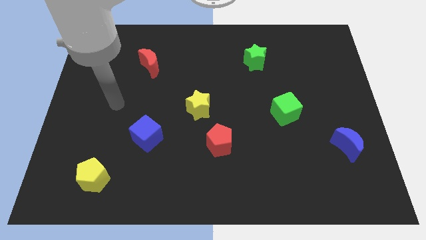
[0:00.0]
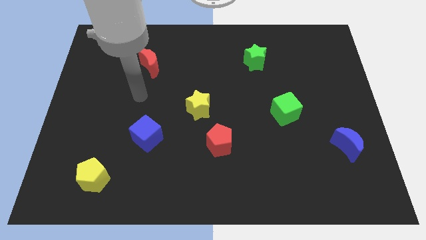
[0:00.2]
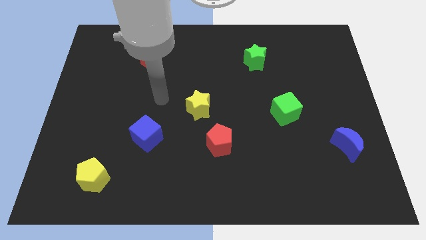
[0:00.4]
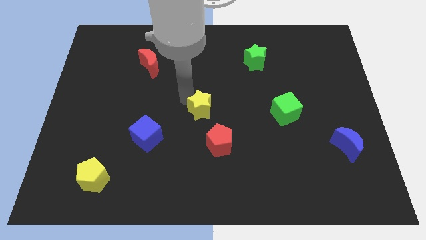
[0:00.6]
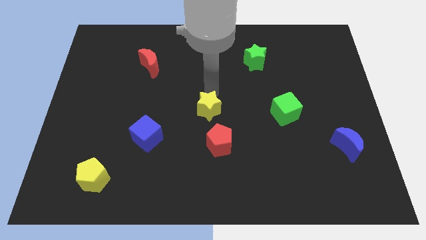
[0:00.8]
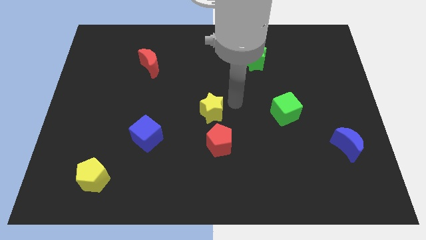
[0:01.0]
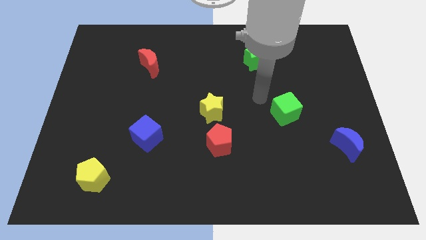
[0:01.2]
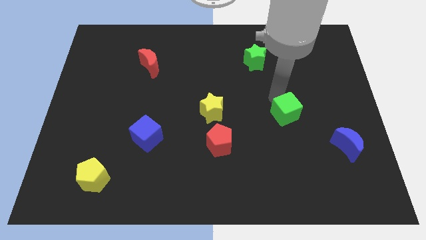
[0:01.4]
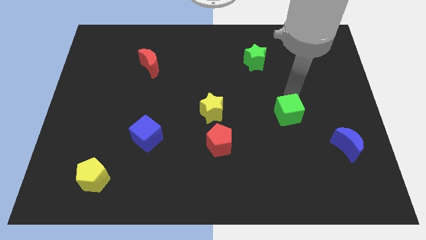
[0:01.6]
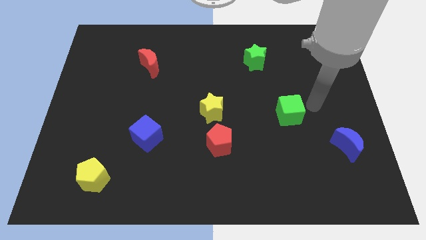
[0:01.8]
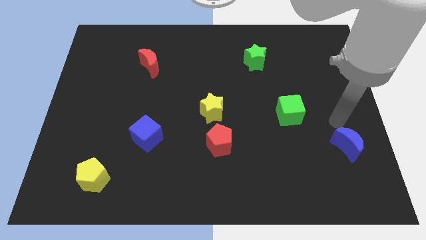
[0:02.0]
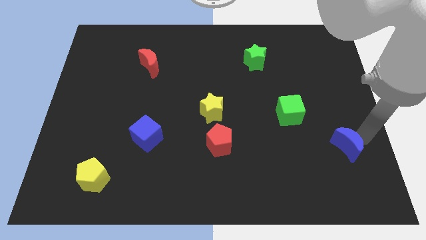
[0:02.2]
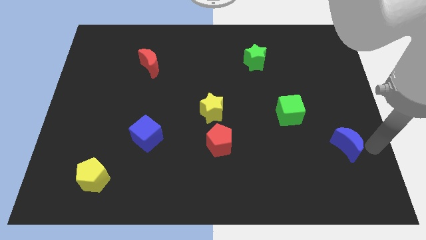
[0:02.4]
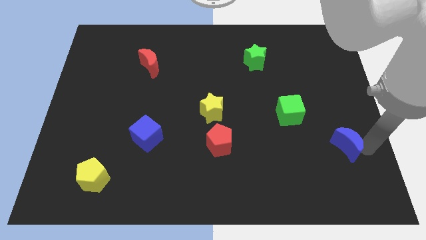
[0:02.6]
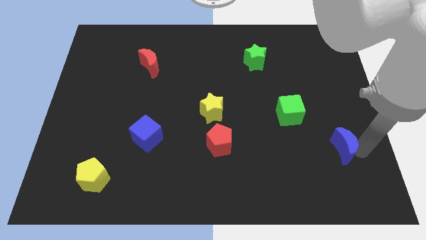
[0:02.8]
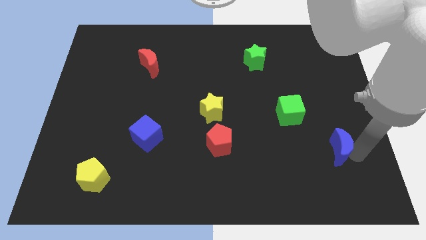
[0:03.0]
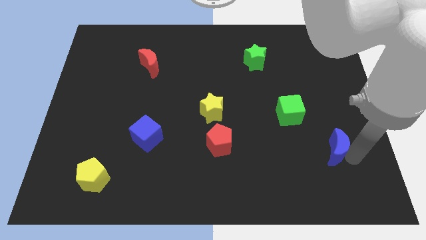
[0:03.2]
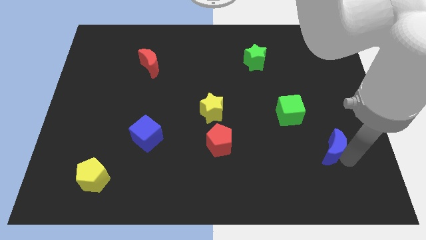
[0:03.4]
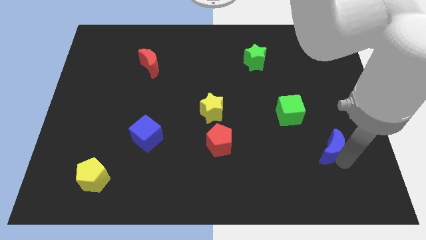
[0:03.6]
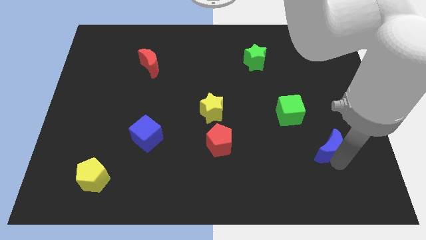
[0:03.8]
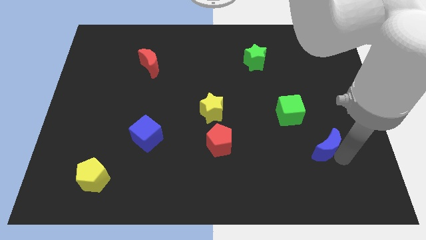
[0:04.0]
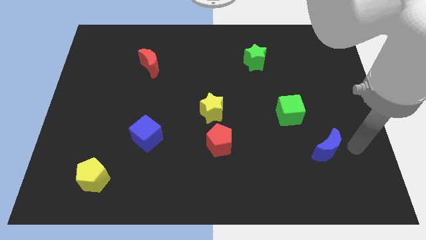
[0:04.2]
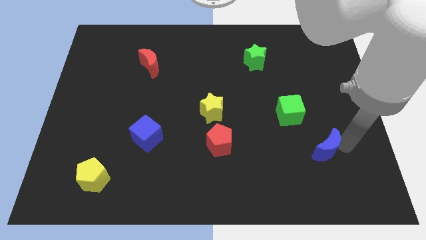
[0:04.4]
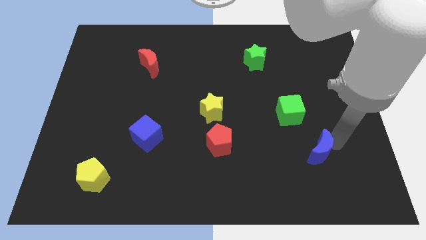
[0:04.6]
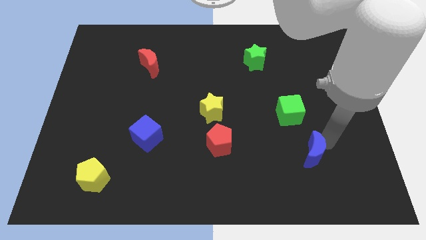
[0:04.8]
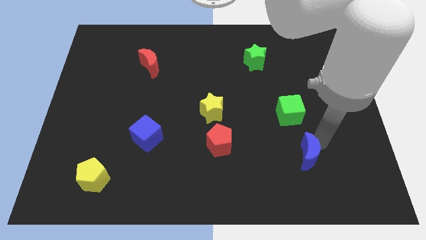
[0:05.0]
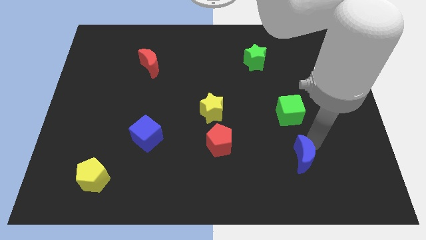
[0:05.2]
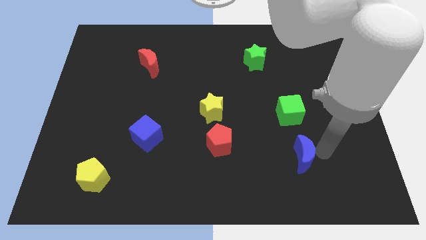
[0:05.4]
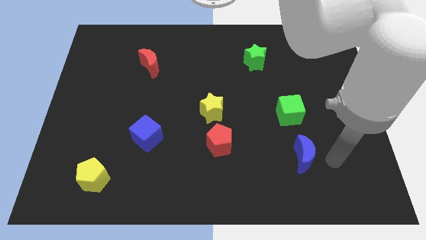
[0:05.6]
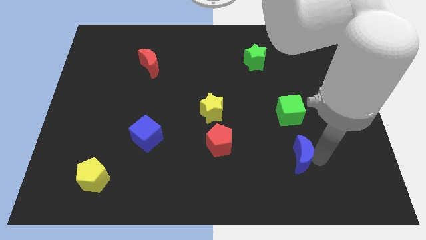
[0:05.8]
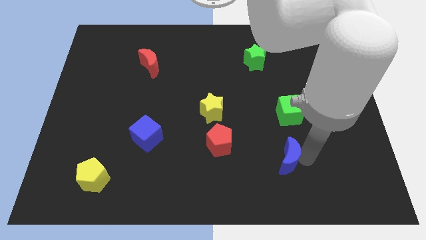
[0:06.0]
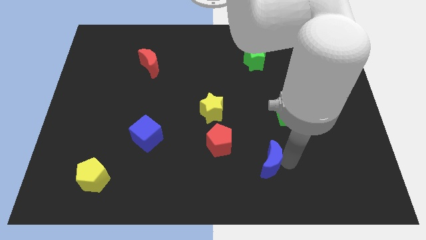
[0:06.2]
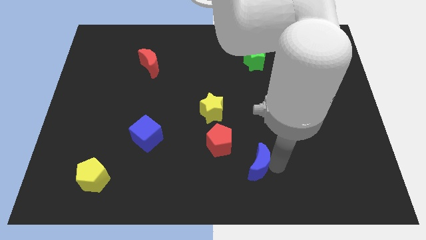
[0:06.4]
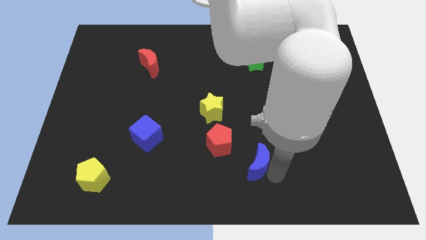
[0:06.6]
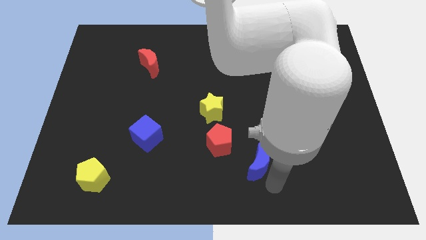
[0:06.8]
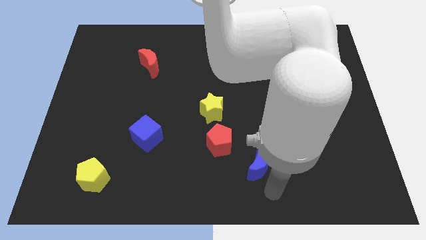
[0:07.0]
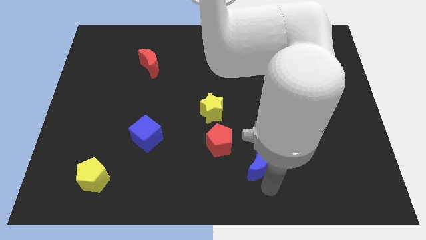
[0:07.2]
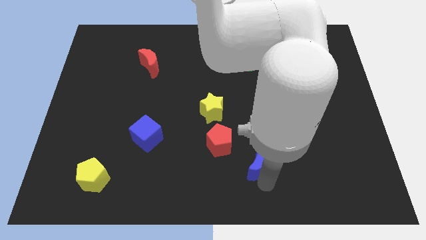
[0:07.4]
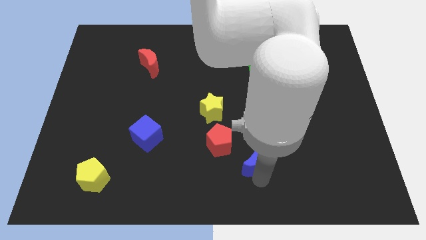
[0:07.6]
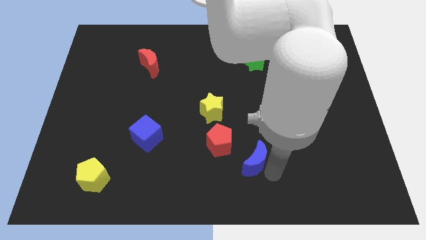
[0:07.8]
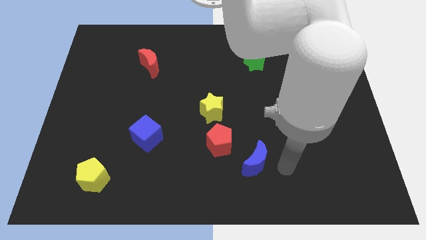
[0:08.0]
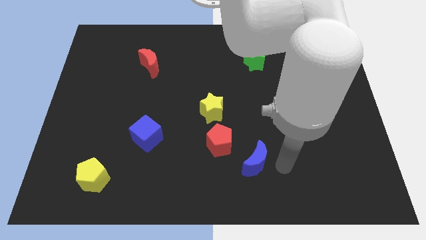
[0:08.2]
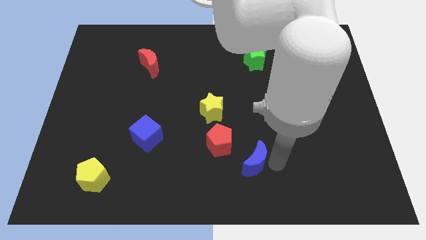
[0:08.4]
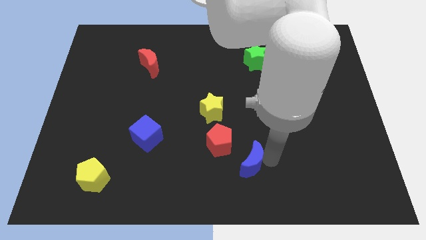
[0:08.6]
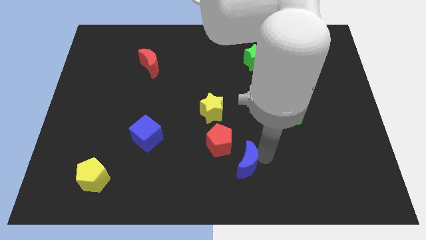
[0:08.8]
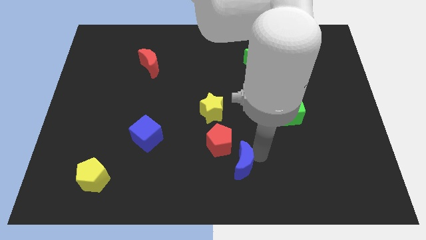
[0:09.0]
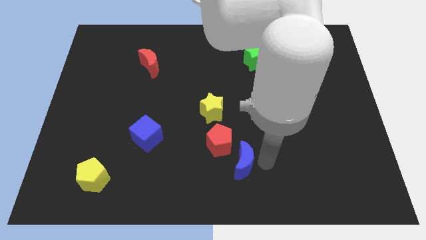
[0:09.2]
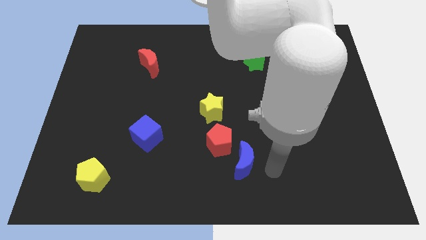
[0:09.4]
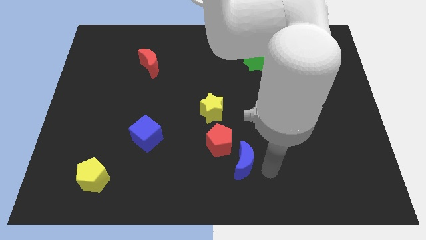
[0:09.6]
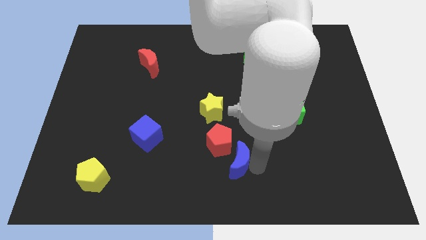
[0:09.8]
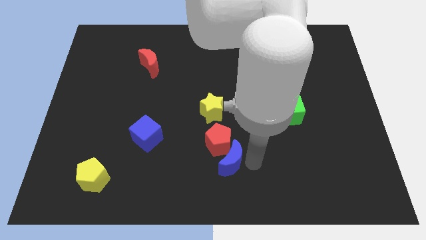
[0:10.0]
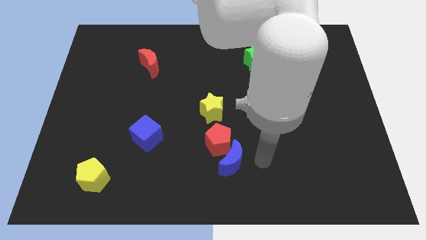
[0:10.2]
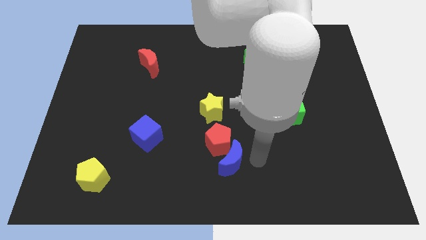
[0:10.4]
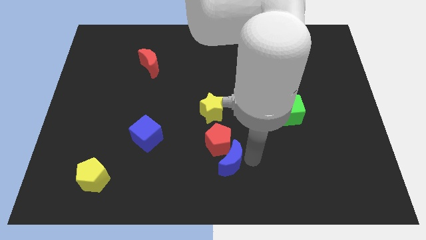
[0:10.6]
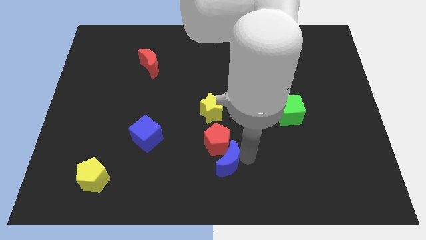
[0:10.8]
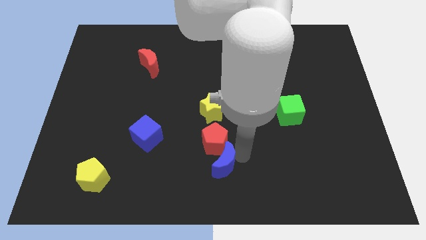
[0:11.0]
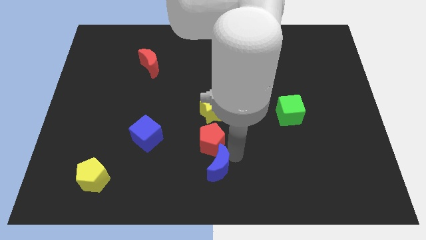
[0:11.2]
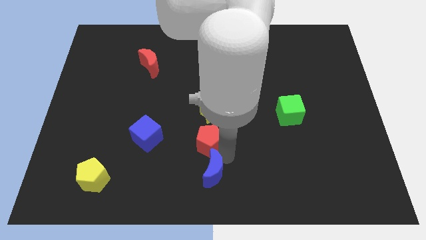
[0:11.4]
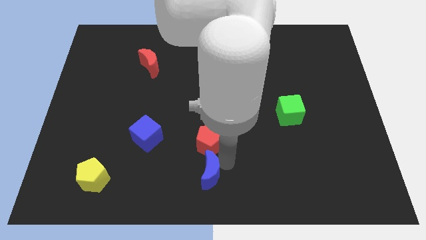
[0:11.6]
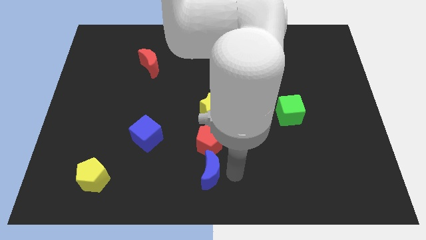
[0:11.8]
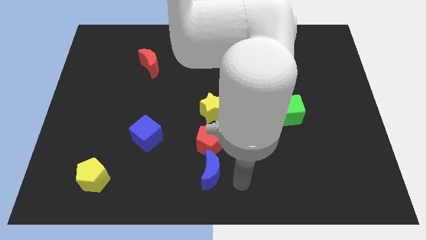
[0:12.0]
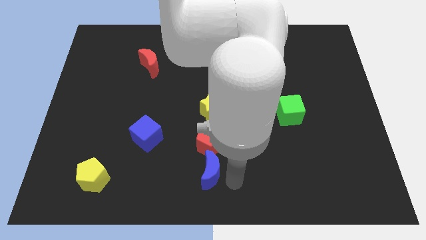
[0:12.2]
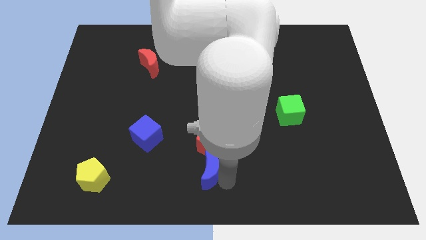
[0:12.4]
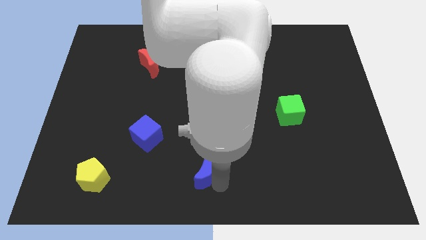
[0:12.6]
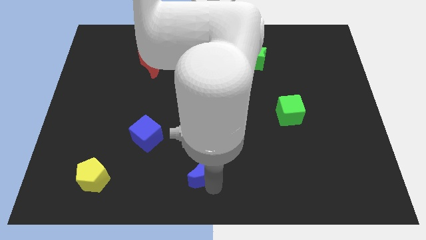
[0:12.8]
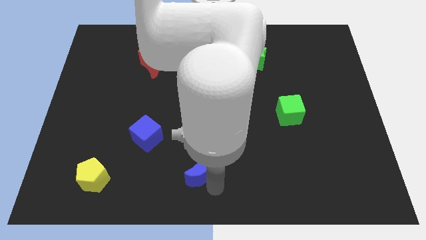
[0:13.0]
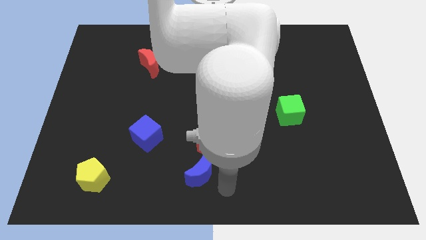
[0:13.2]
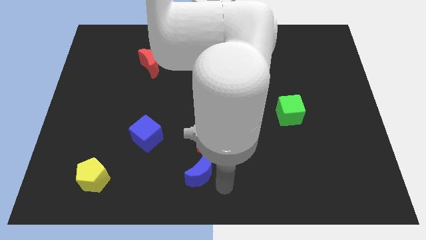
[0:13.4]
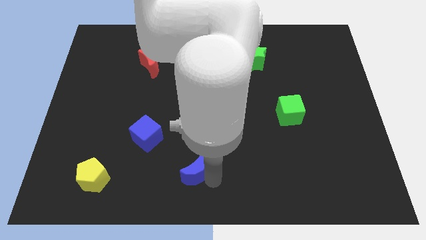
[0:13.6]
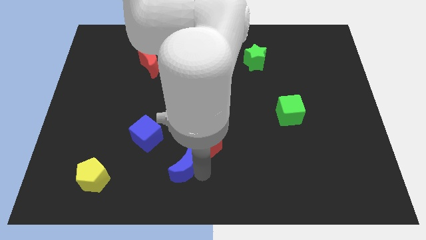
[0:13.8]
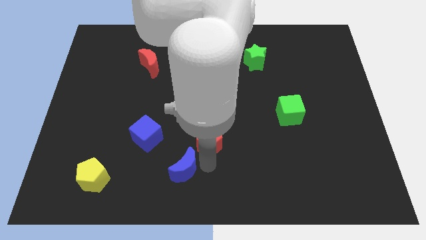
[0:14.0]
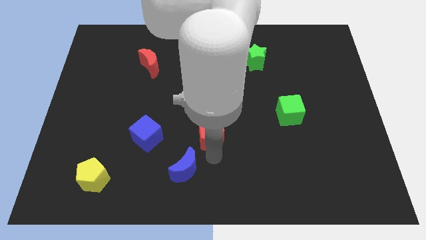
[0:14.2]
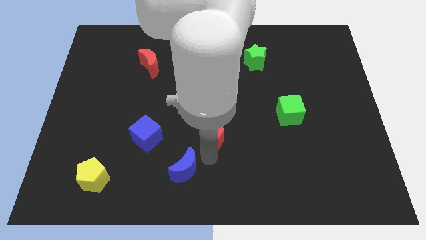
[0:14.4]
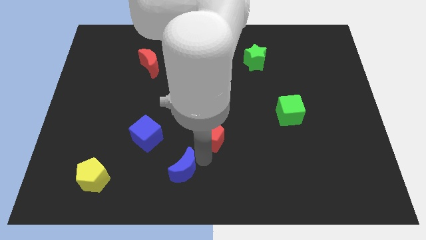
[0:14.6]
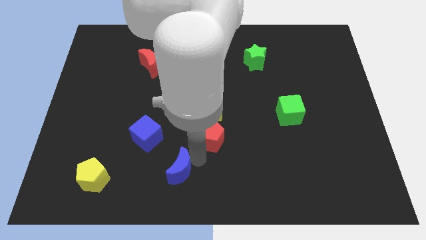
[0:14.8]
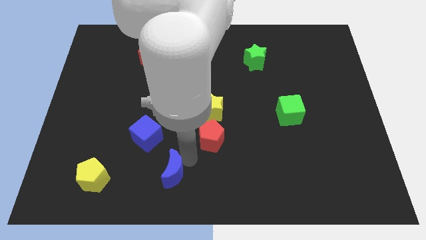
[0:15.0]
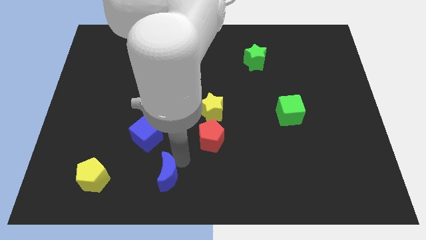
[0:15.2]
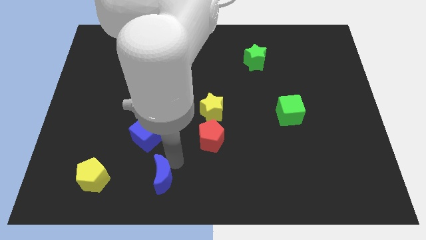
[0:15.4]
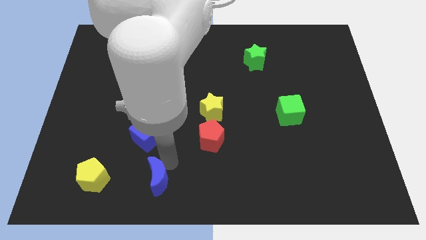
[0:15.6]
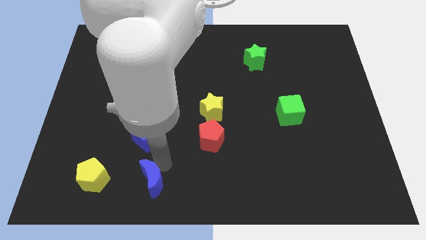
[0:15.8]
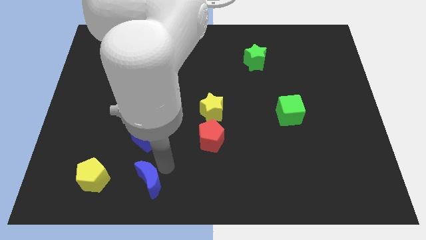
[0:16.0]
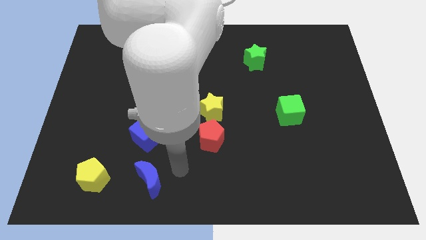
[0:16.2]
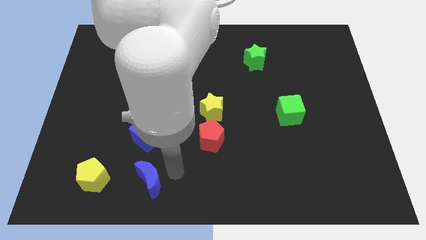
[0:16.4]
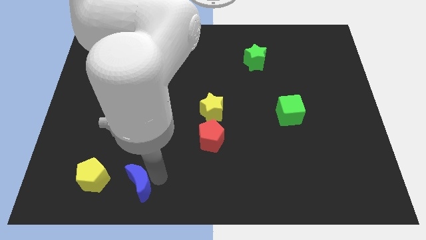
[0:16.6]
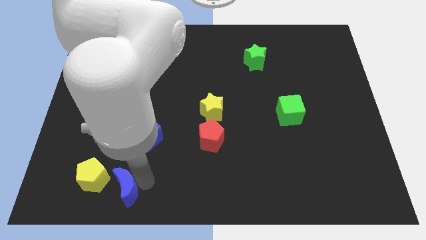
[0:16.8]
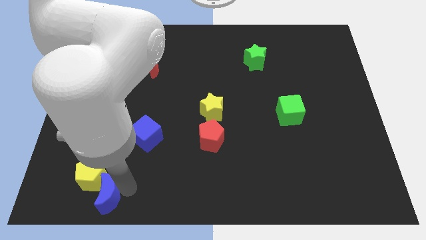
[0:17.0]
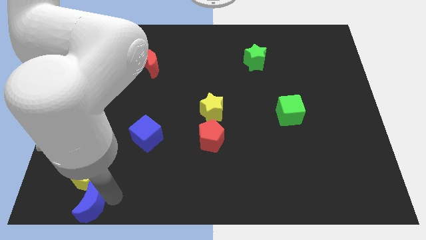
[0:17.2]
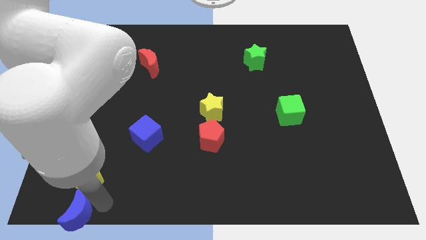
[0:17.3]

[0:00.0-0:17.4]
slide the blue moon to the bottom left of the board
